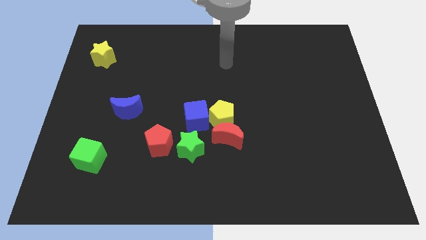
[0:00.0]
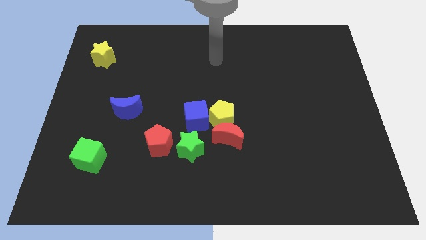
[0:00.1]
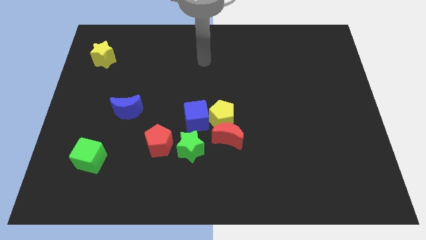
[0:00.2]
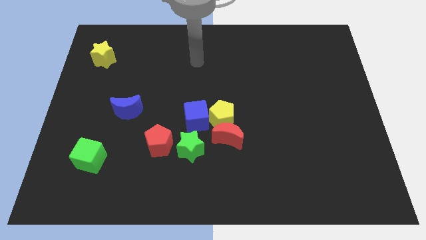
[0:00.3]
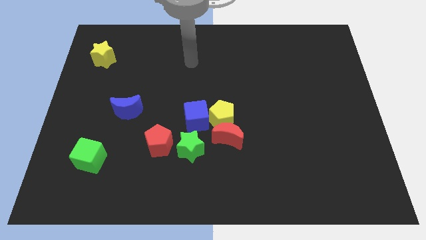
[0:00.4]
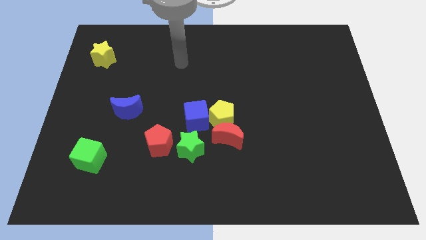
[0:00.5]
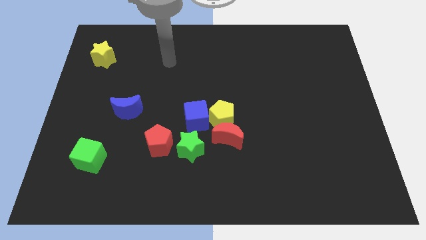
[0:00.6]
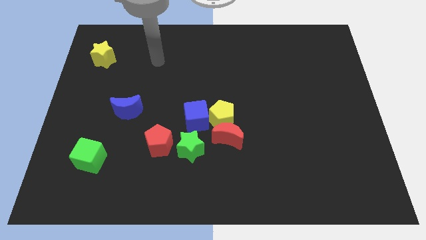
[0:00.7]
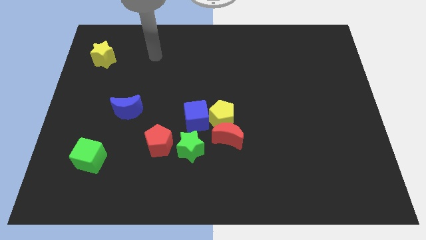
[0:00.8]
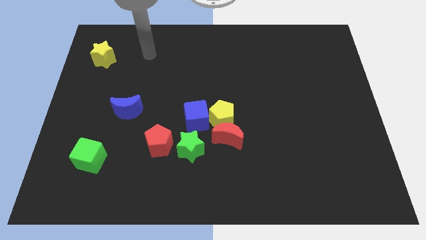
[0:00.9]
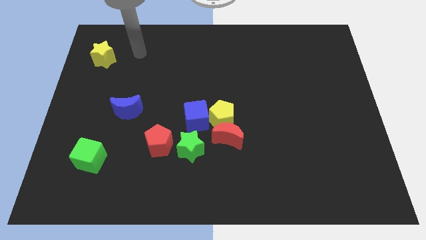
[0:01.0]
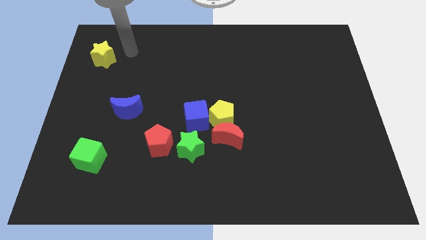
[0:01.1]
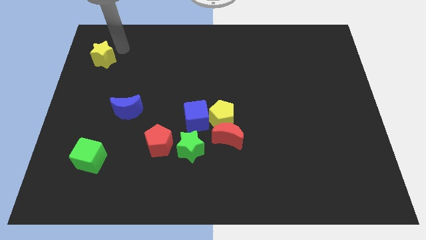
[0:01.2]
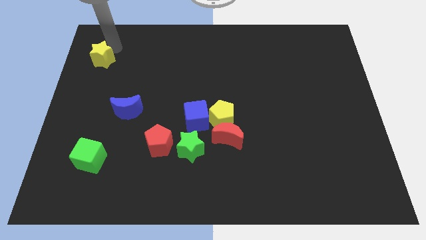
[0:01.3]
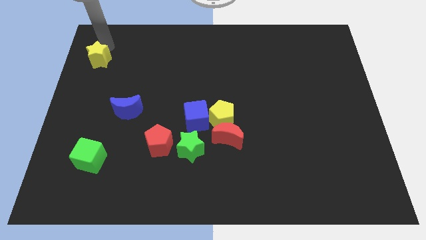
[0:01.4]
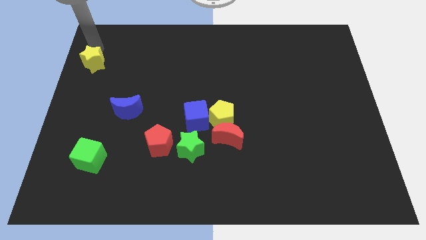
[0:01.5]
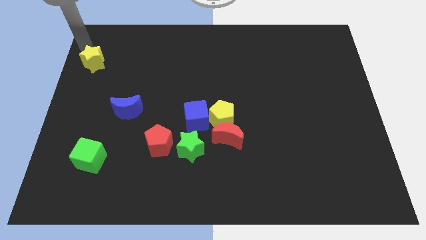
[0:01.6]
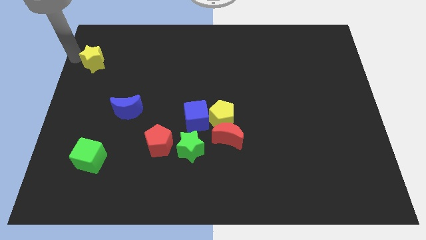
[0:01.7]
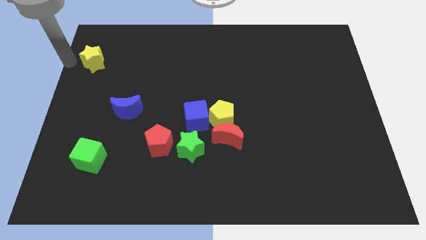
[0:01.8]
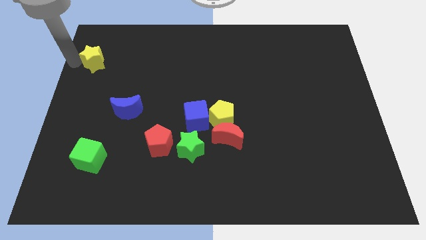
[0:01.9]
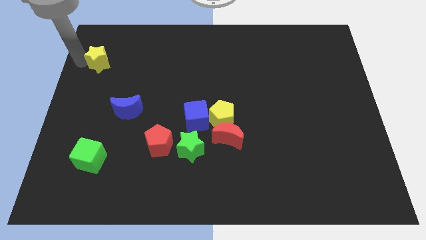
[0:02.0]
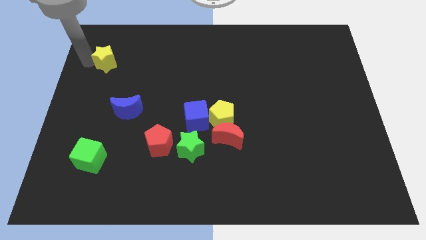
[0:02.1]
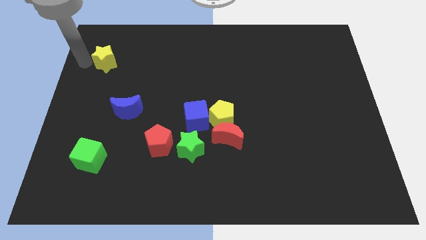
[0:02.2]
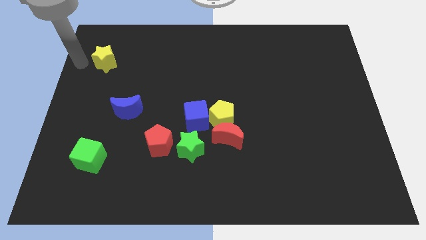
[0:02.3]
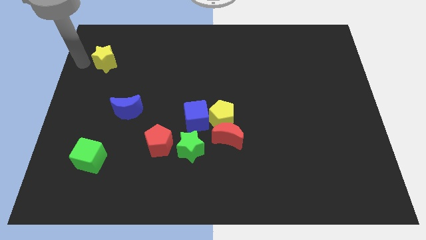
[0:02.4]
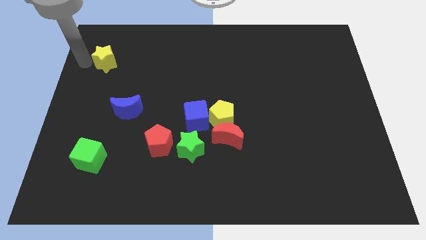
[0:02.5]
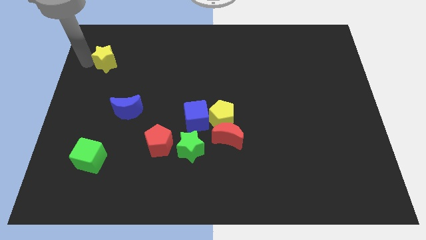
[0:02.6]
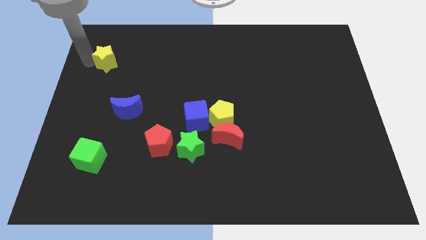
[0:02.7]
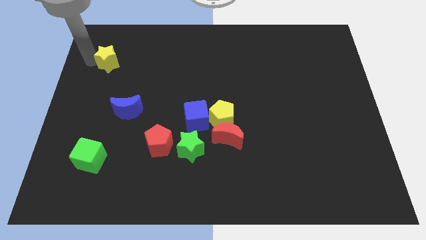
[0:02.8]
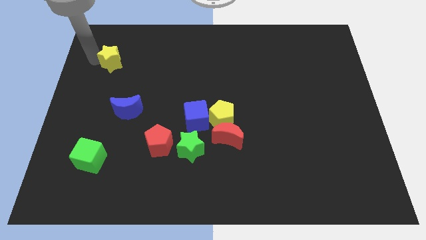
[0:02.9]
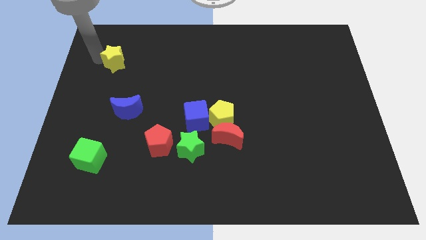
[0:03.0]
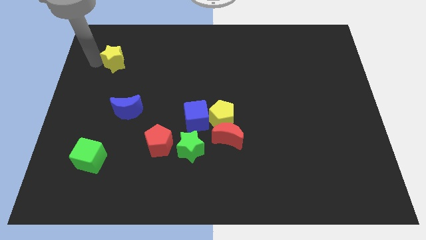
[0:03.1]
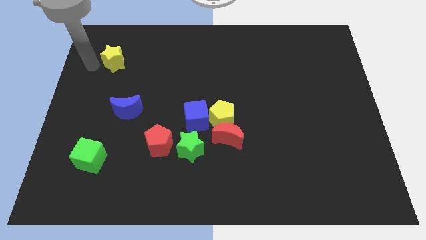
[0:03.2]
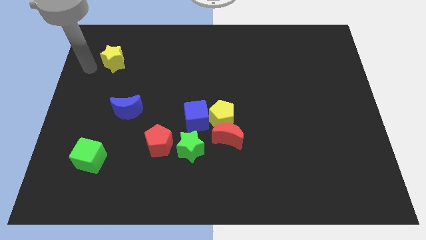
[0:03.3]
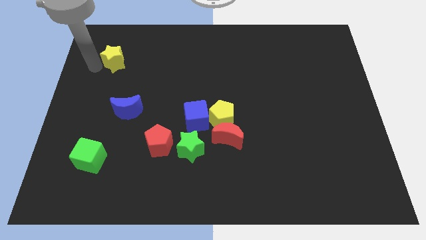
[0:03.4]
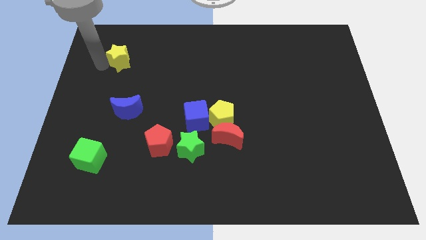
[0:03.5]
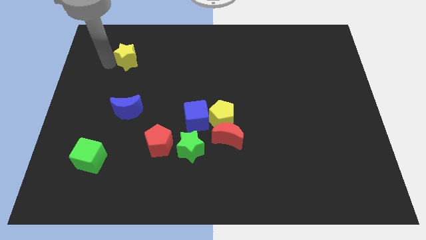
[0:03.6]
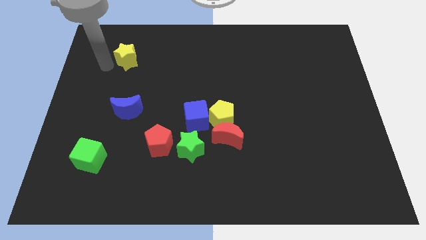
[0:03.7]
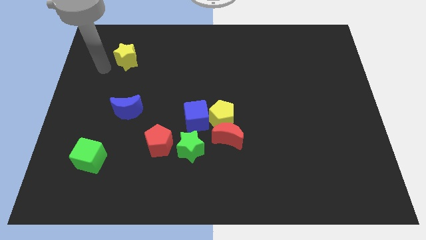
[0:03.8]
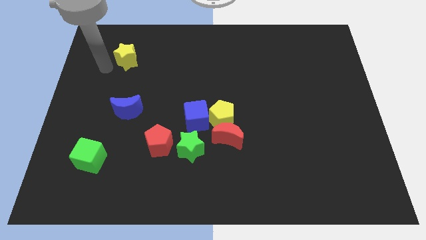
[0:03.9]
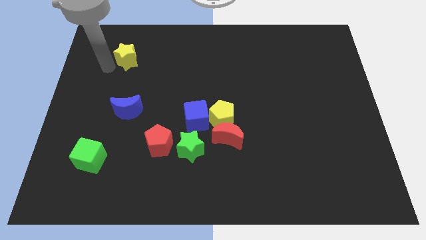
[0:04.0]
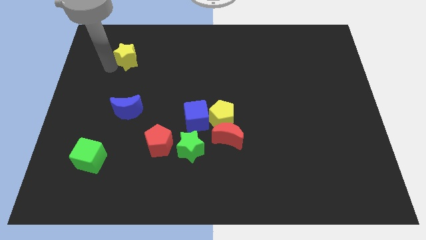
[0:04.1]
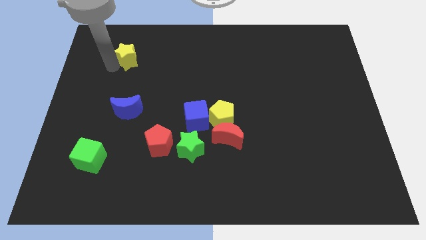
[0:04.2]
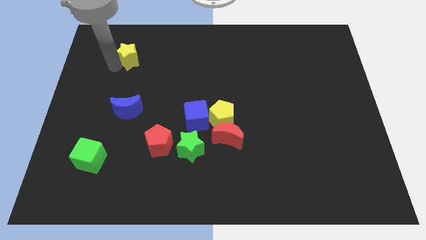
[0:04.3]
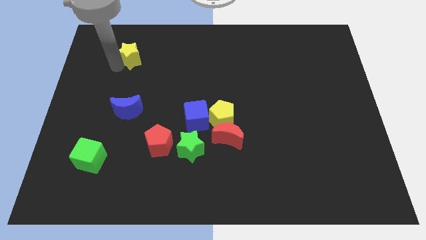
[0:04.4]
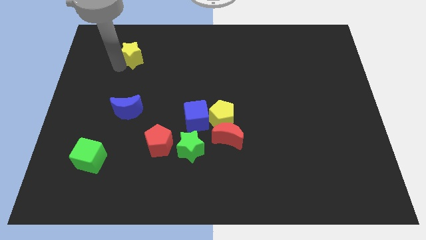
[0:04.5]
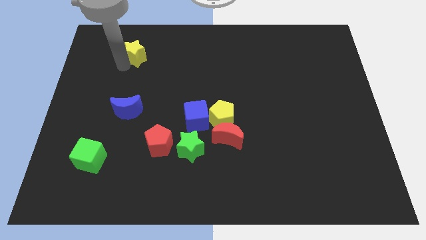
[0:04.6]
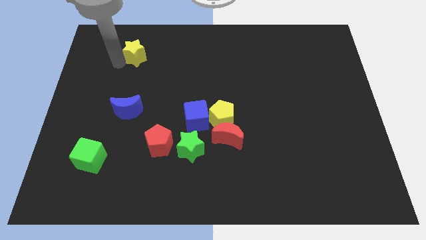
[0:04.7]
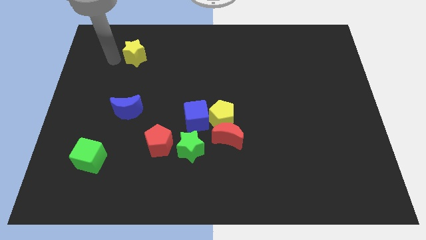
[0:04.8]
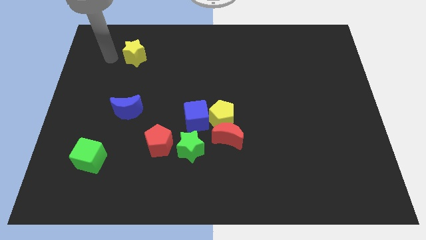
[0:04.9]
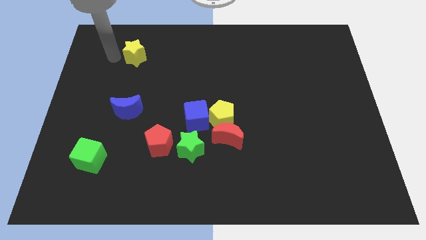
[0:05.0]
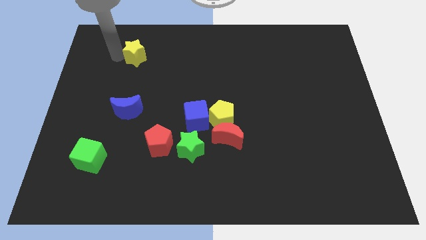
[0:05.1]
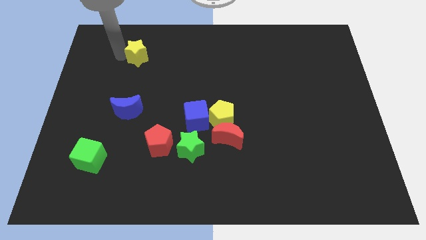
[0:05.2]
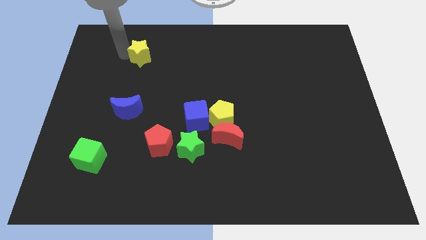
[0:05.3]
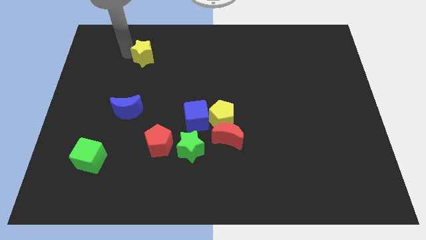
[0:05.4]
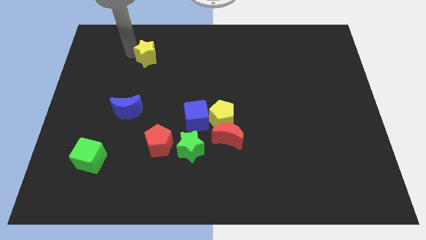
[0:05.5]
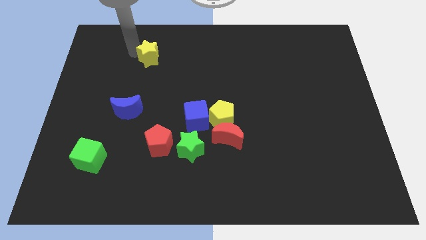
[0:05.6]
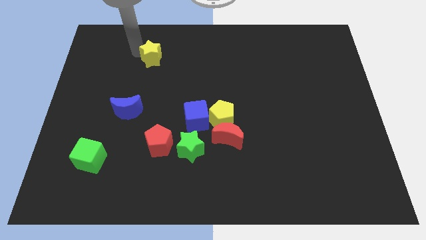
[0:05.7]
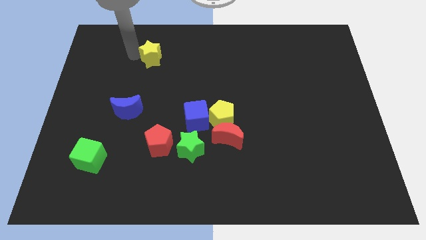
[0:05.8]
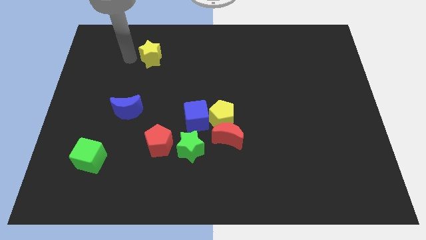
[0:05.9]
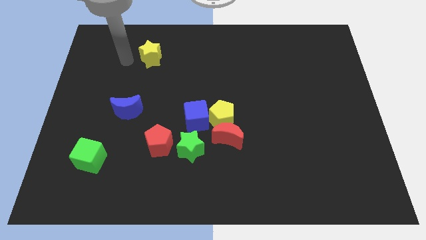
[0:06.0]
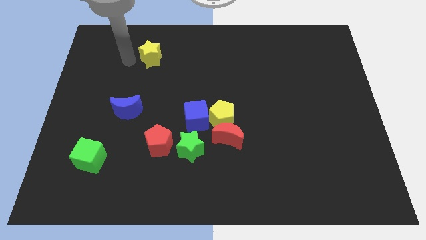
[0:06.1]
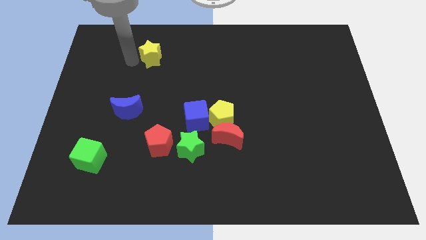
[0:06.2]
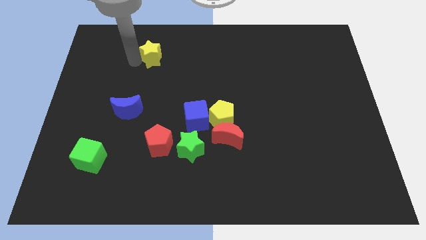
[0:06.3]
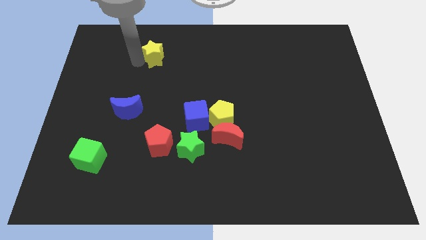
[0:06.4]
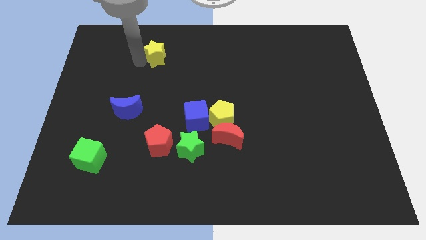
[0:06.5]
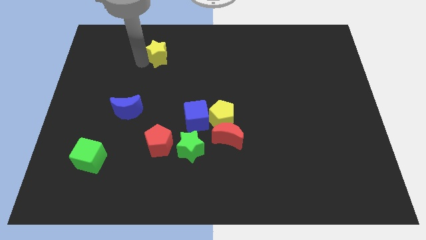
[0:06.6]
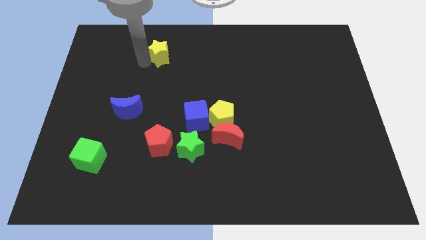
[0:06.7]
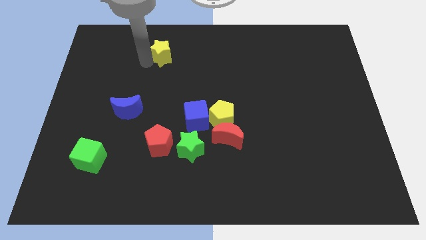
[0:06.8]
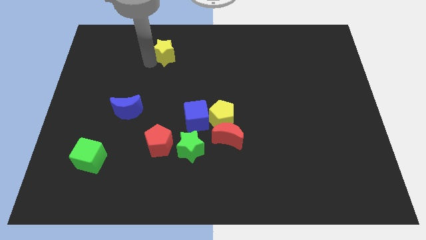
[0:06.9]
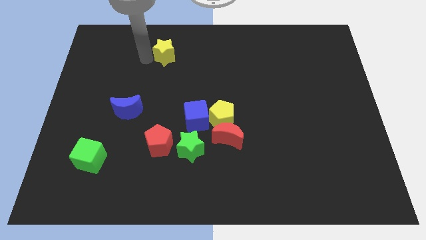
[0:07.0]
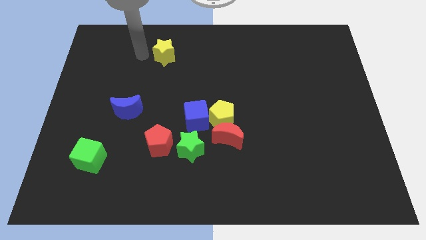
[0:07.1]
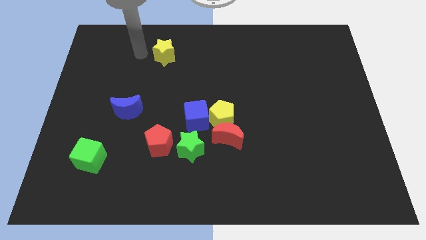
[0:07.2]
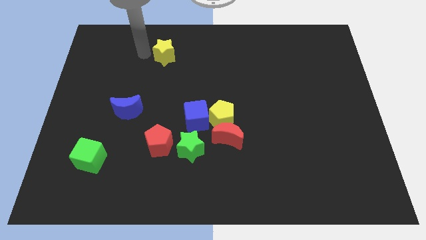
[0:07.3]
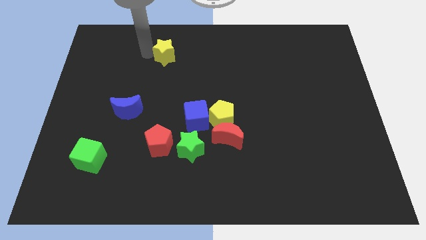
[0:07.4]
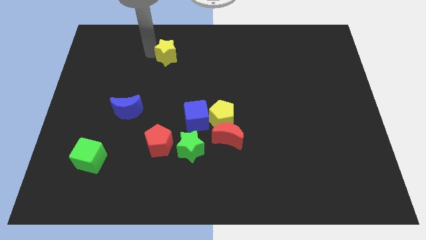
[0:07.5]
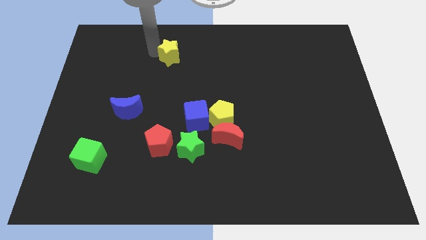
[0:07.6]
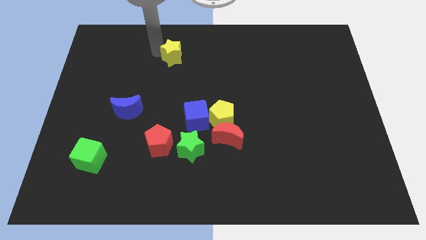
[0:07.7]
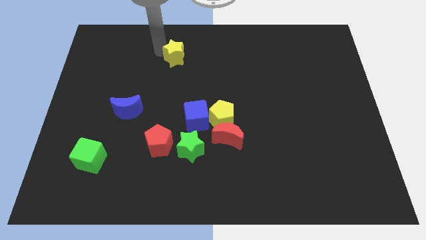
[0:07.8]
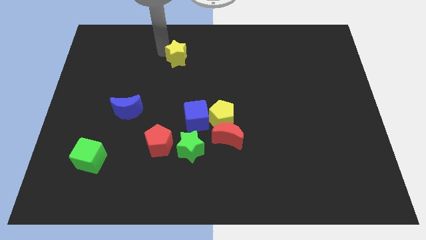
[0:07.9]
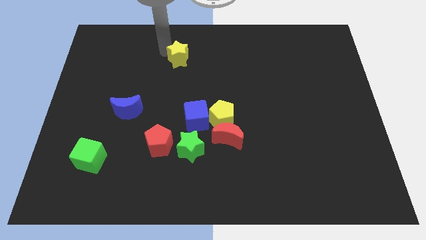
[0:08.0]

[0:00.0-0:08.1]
move the yellow star to the right
